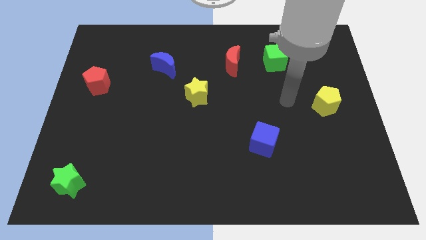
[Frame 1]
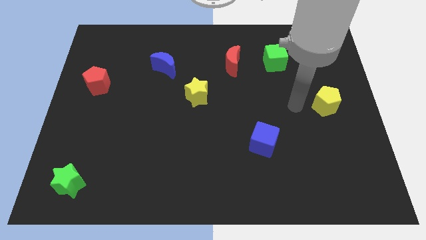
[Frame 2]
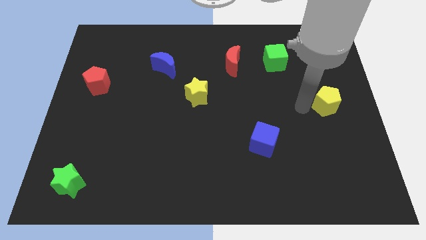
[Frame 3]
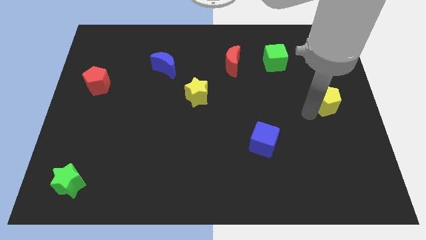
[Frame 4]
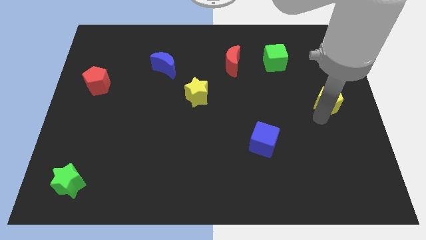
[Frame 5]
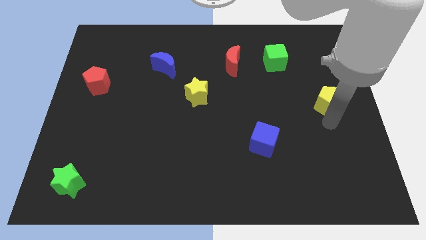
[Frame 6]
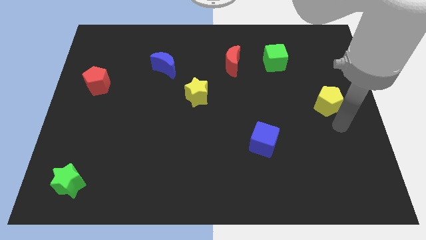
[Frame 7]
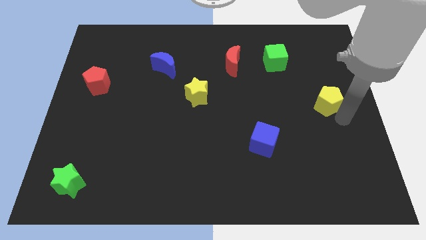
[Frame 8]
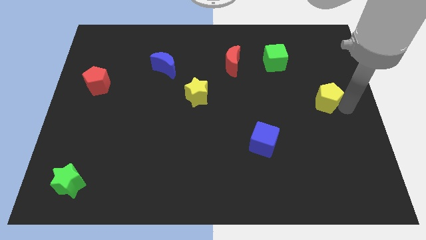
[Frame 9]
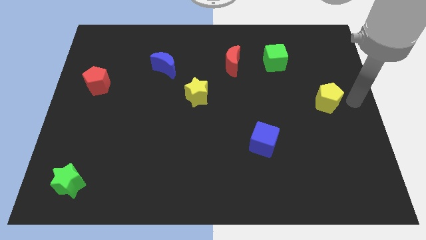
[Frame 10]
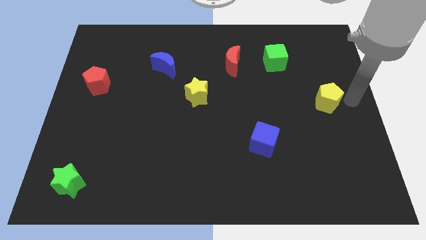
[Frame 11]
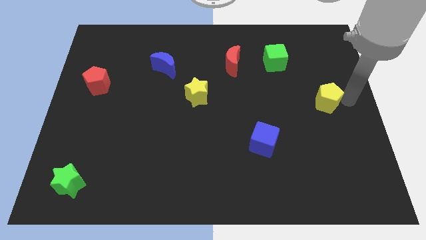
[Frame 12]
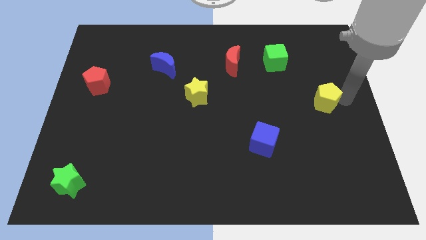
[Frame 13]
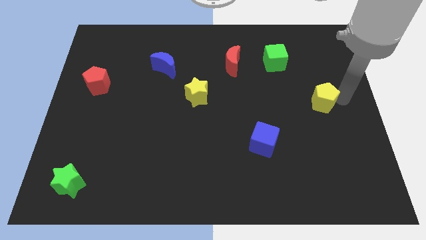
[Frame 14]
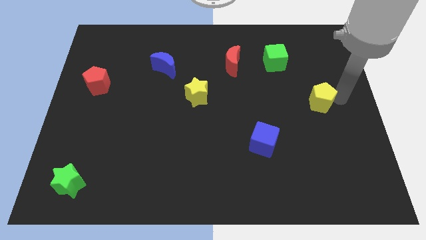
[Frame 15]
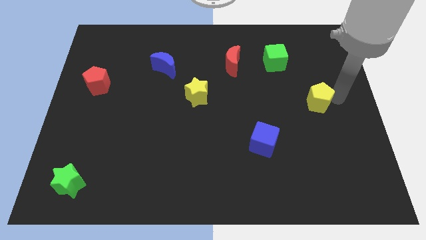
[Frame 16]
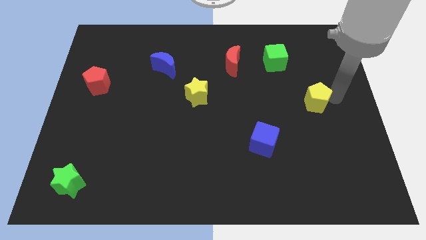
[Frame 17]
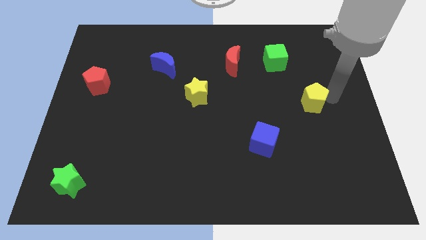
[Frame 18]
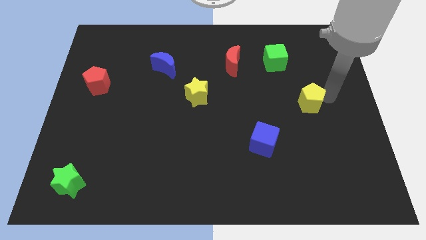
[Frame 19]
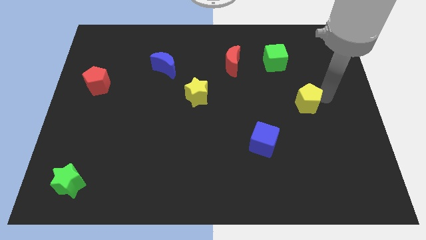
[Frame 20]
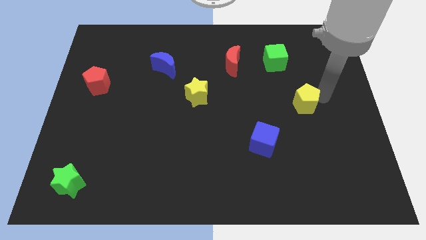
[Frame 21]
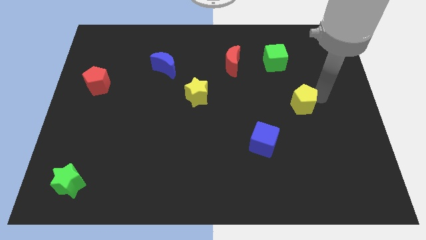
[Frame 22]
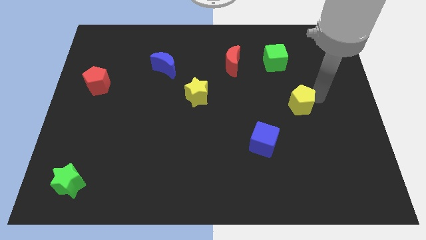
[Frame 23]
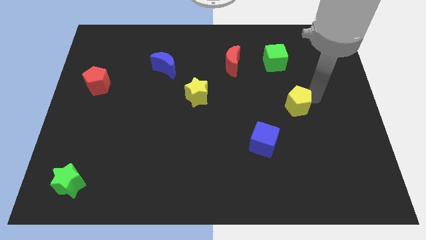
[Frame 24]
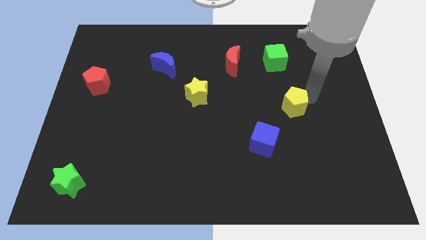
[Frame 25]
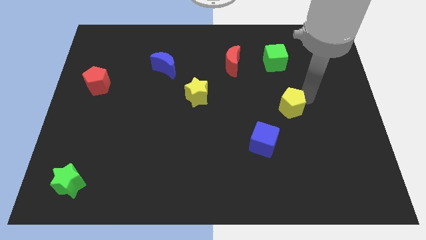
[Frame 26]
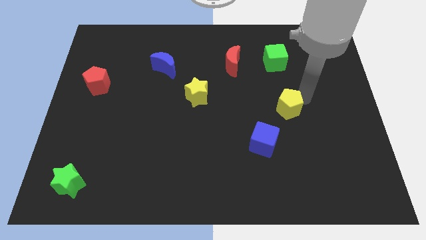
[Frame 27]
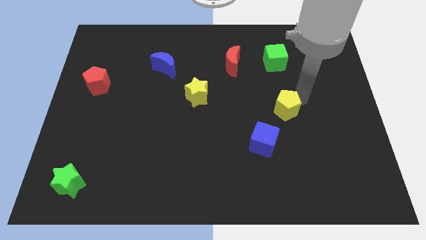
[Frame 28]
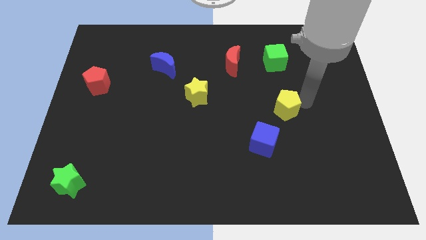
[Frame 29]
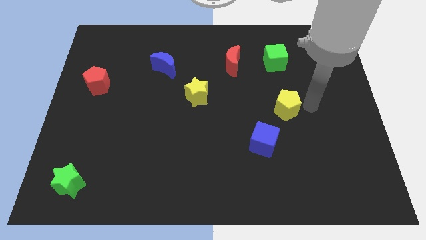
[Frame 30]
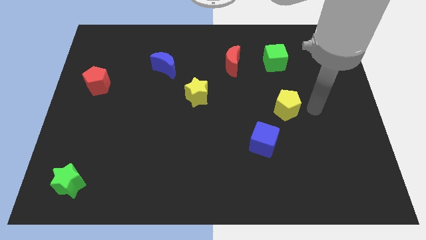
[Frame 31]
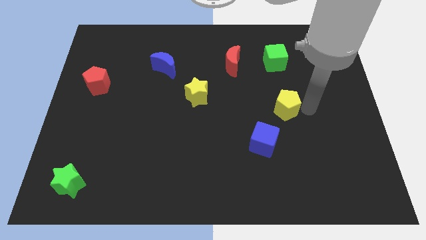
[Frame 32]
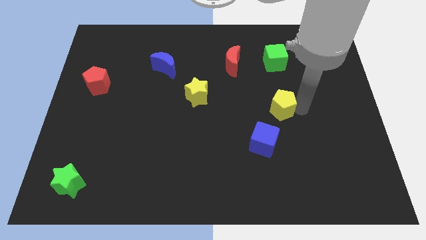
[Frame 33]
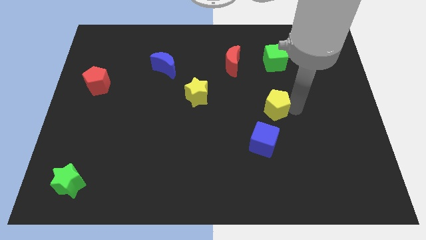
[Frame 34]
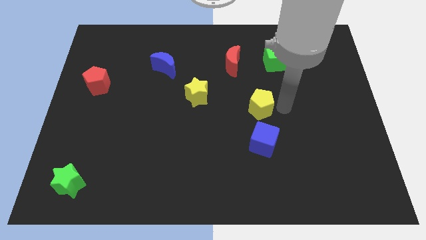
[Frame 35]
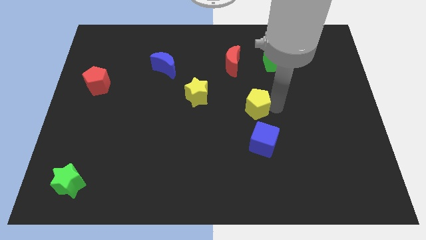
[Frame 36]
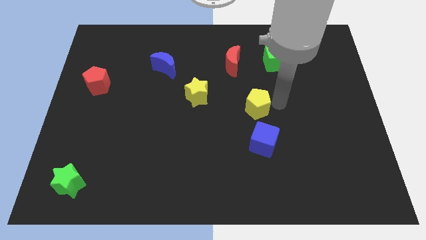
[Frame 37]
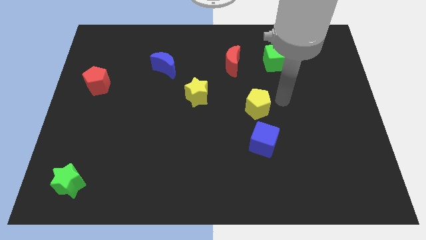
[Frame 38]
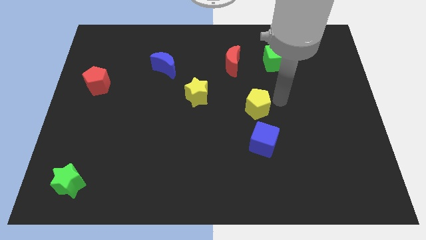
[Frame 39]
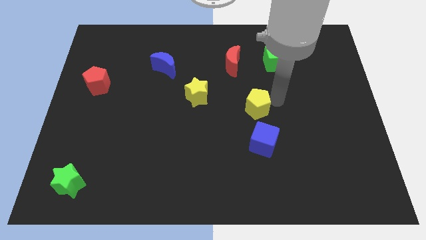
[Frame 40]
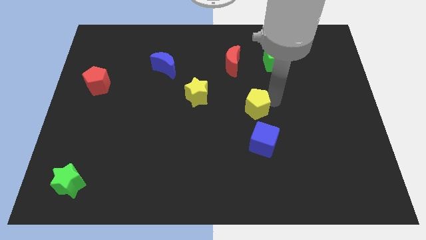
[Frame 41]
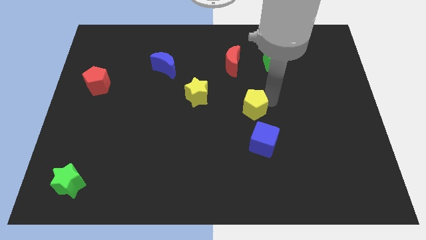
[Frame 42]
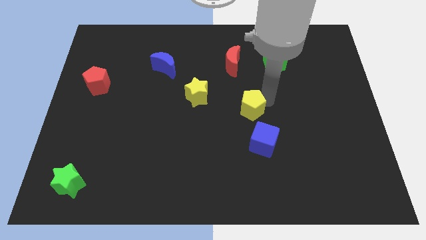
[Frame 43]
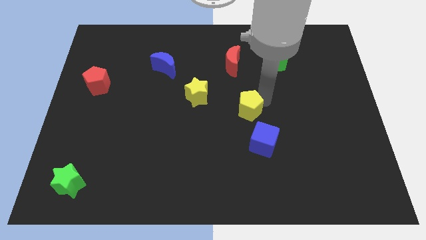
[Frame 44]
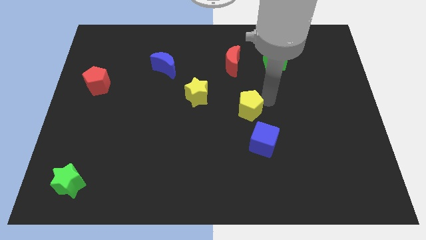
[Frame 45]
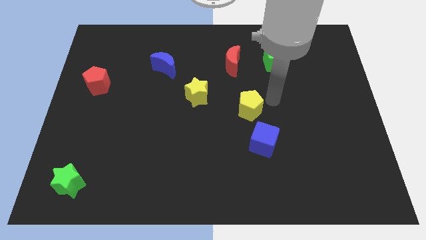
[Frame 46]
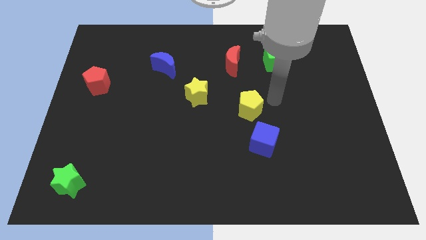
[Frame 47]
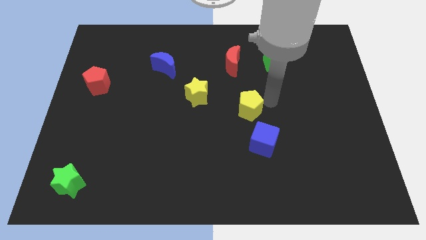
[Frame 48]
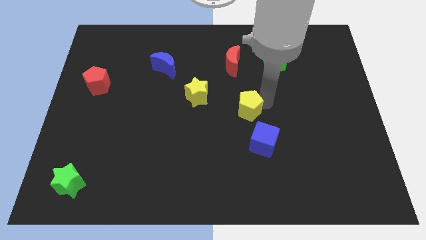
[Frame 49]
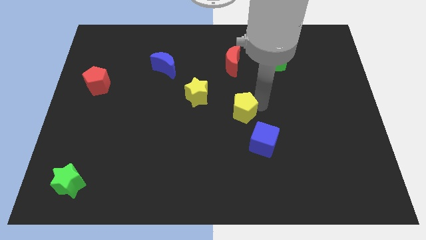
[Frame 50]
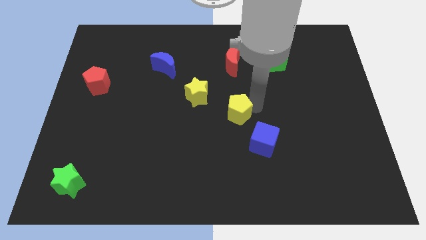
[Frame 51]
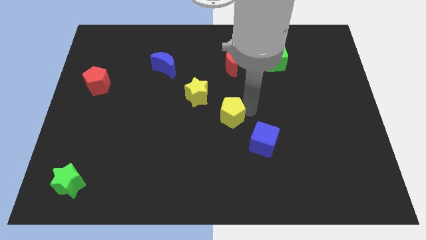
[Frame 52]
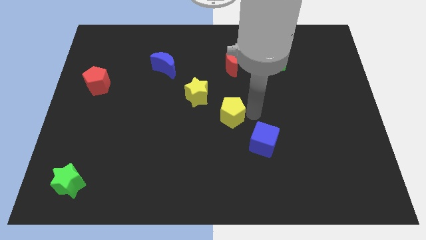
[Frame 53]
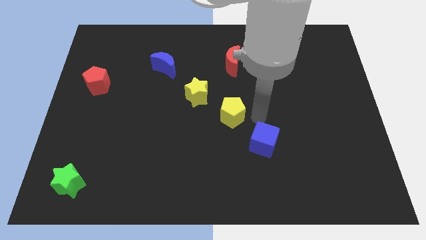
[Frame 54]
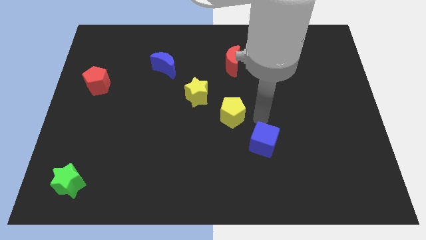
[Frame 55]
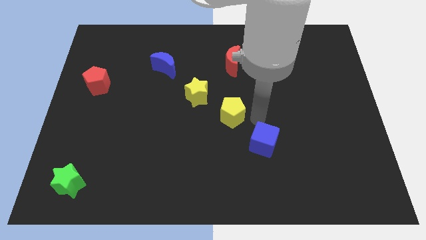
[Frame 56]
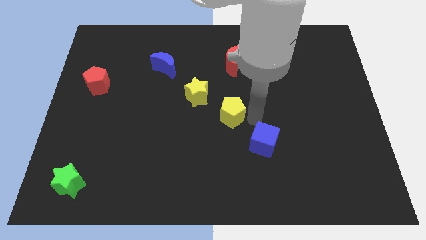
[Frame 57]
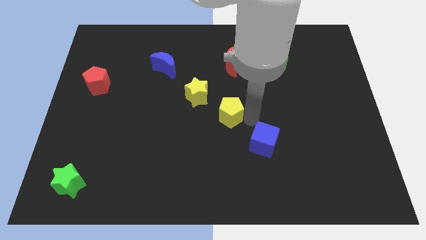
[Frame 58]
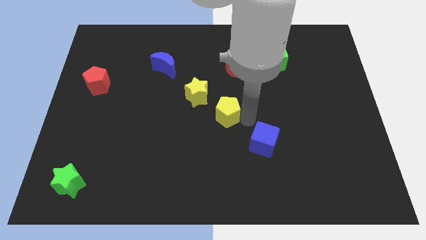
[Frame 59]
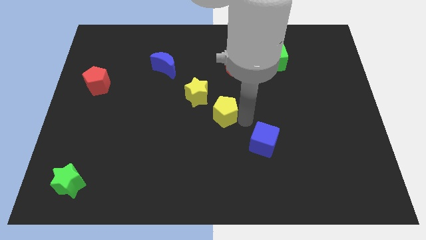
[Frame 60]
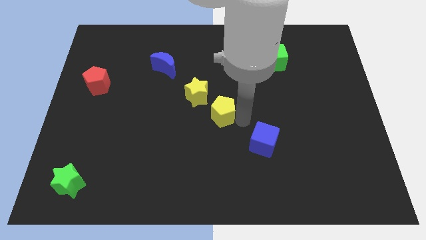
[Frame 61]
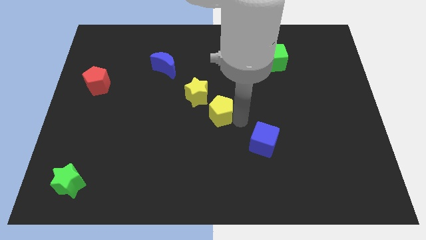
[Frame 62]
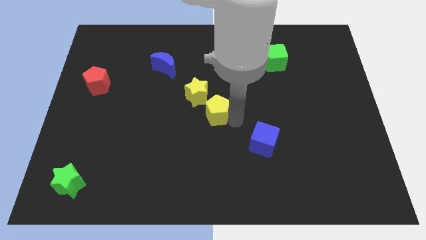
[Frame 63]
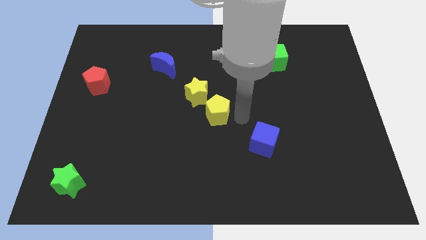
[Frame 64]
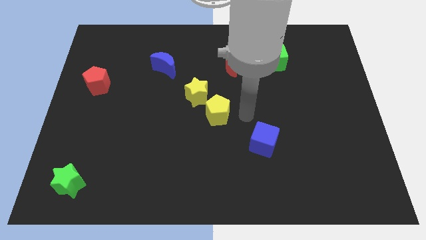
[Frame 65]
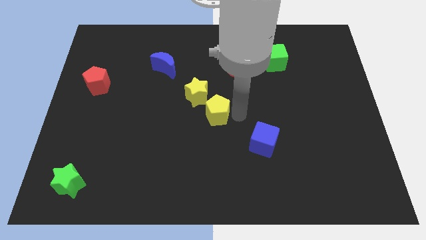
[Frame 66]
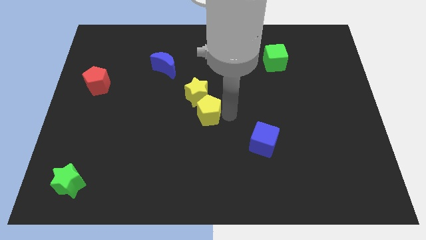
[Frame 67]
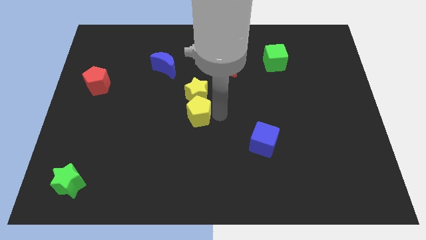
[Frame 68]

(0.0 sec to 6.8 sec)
put the yellow pentagon to the bottom left of the yellow star
